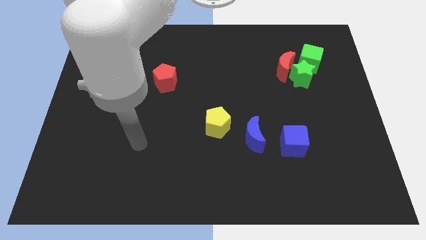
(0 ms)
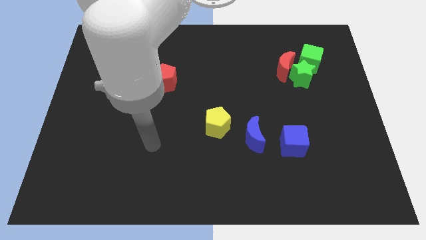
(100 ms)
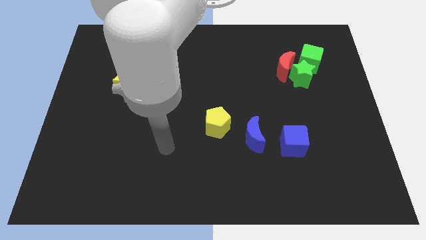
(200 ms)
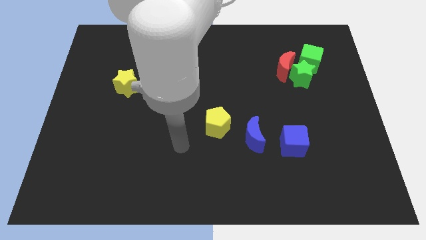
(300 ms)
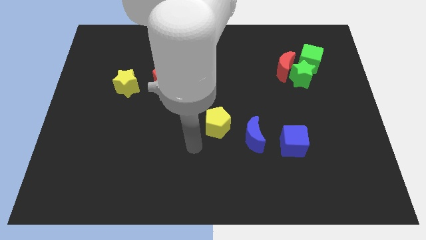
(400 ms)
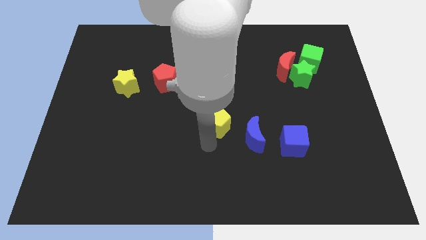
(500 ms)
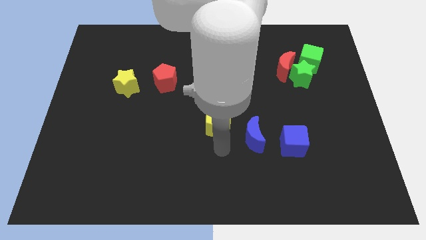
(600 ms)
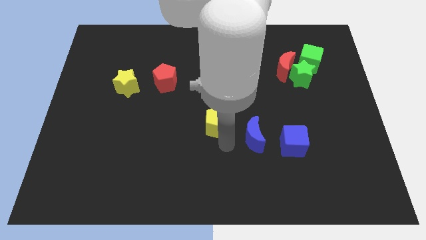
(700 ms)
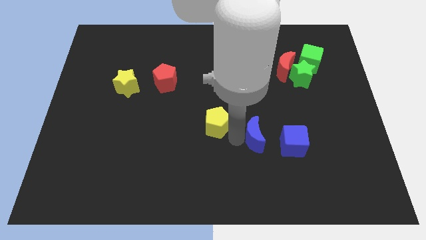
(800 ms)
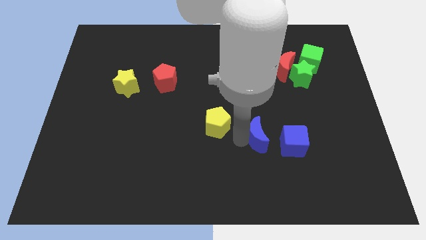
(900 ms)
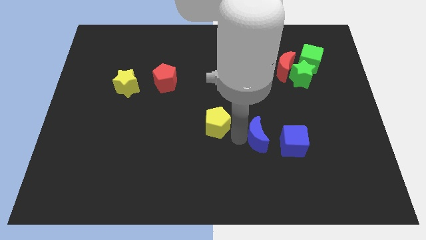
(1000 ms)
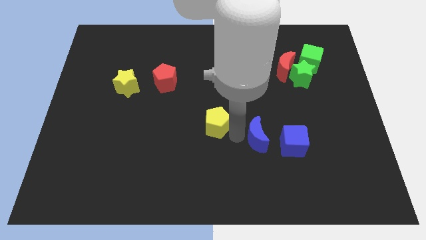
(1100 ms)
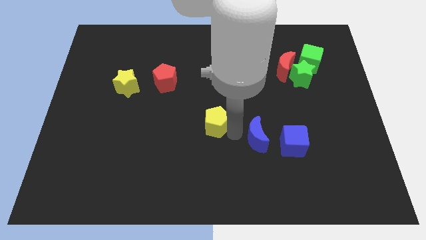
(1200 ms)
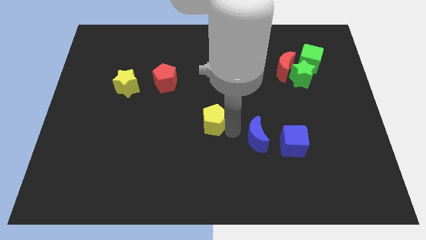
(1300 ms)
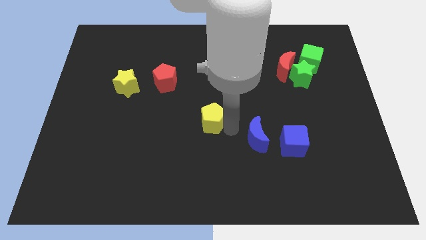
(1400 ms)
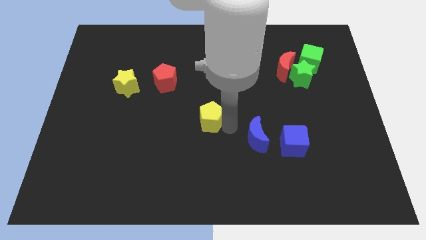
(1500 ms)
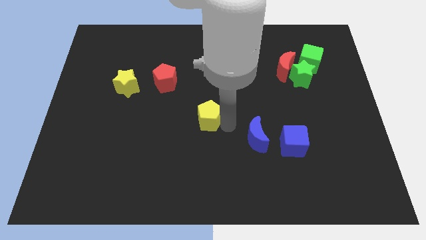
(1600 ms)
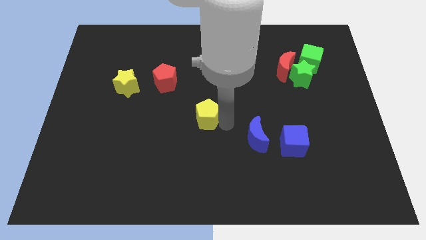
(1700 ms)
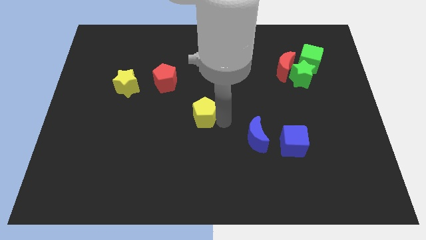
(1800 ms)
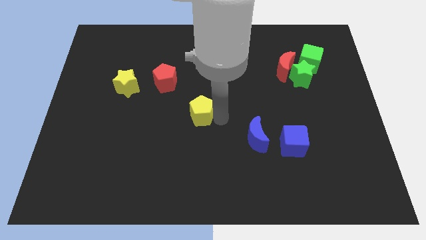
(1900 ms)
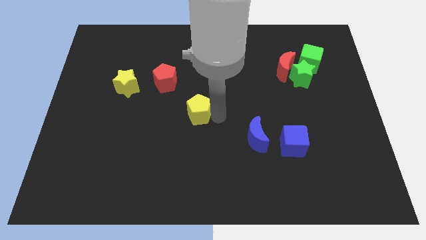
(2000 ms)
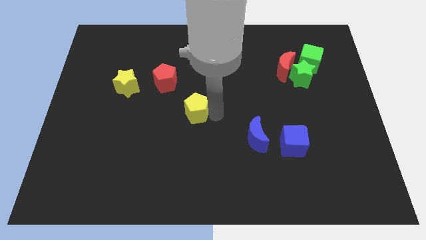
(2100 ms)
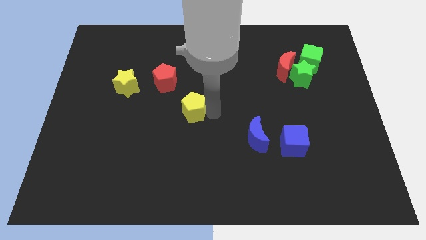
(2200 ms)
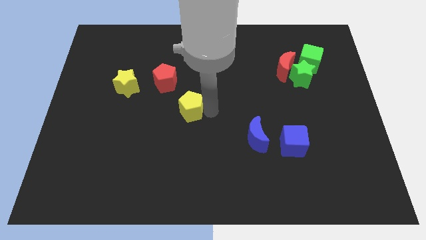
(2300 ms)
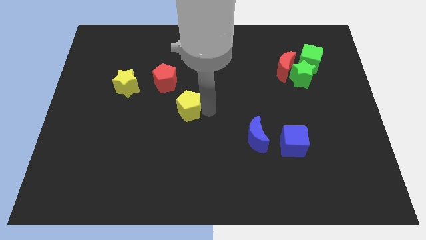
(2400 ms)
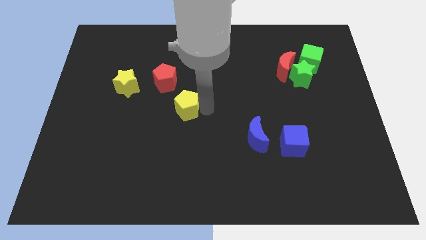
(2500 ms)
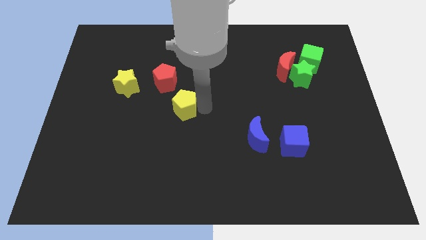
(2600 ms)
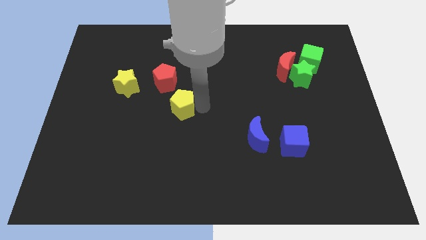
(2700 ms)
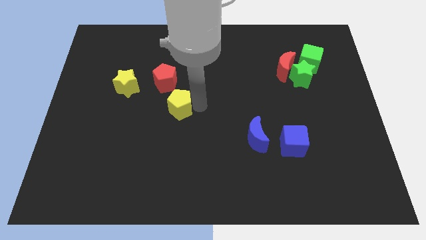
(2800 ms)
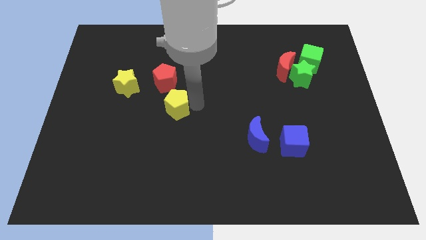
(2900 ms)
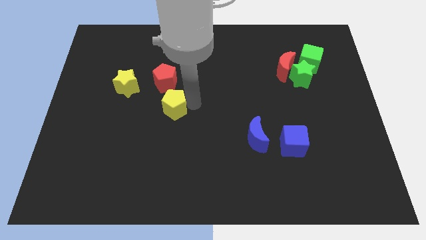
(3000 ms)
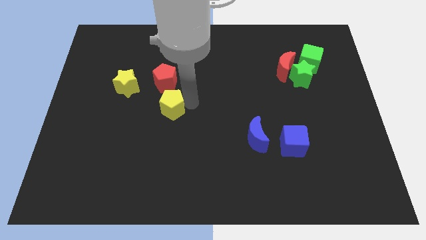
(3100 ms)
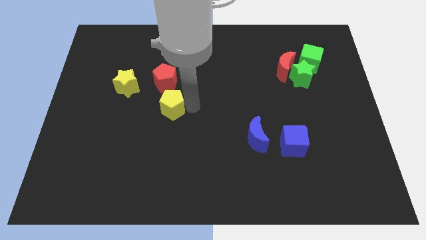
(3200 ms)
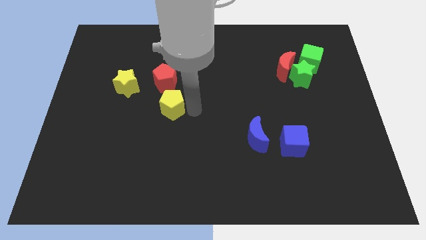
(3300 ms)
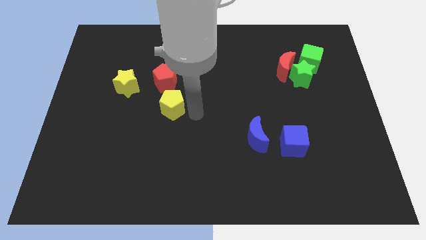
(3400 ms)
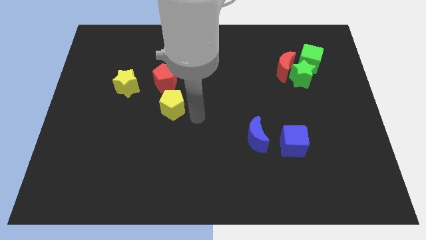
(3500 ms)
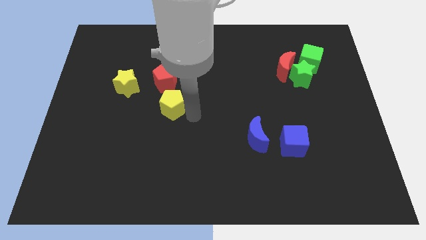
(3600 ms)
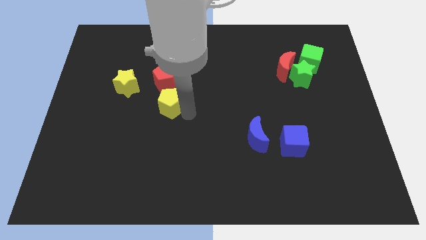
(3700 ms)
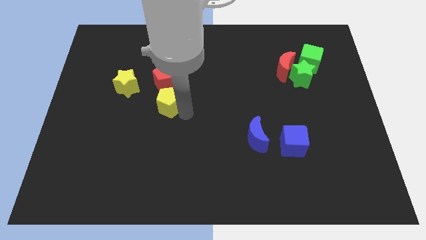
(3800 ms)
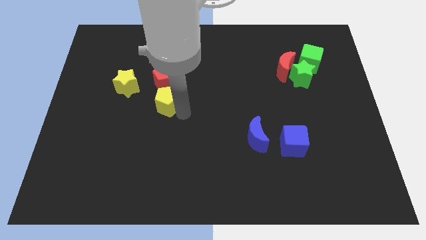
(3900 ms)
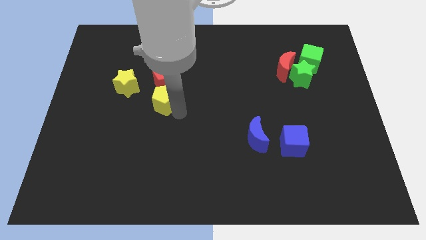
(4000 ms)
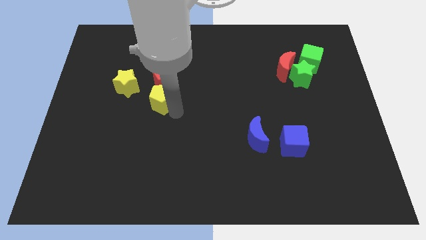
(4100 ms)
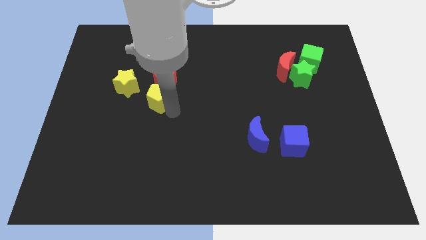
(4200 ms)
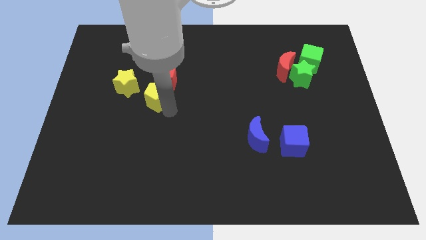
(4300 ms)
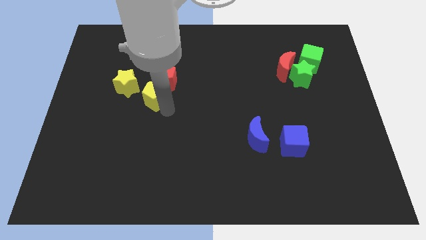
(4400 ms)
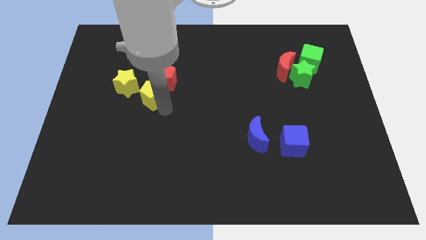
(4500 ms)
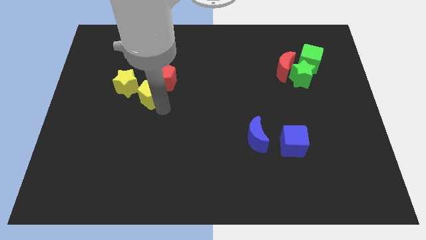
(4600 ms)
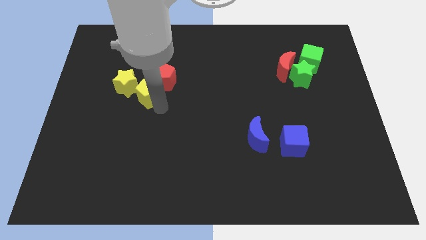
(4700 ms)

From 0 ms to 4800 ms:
move the yellow pentagon next to the yellow star

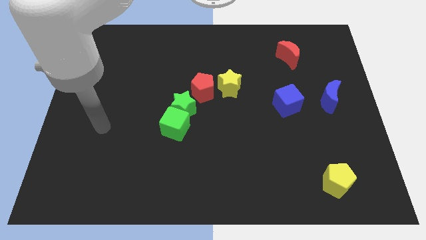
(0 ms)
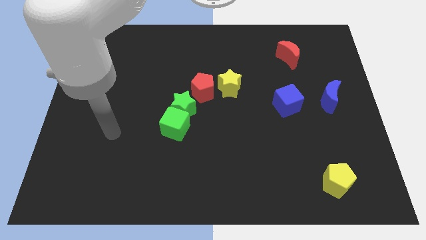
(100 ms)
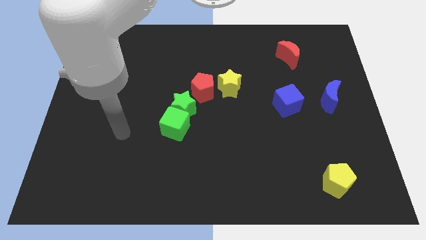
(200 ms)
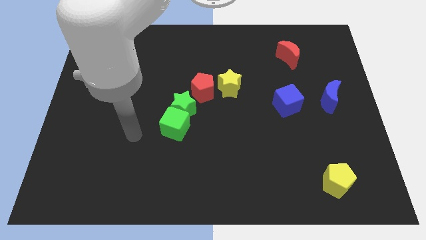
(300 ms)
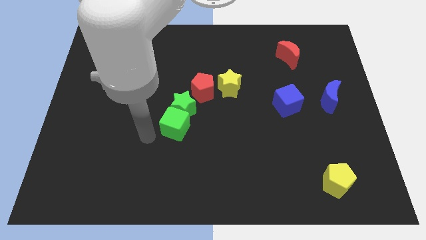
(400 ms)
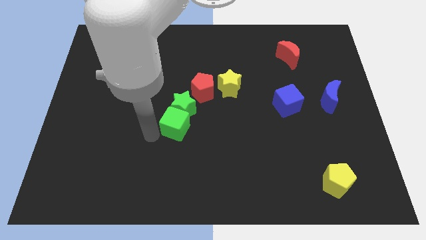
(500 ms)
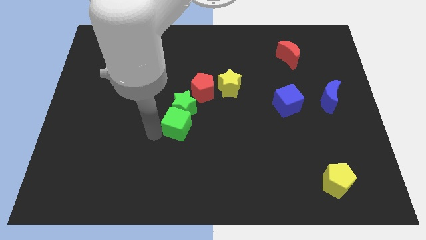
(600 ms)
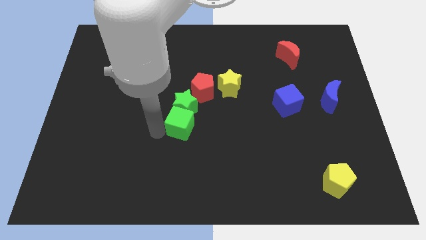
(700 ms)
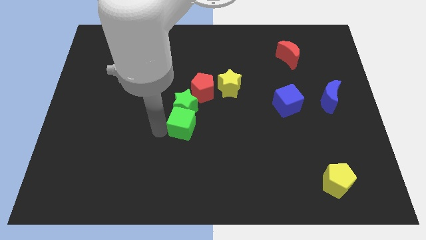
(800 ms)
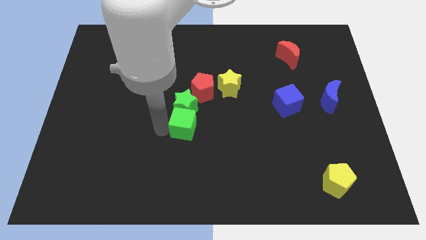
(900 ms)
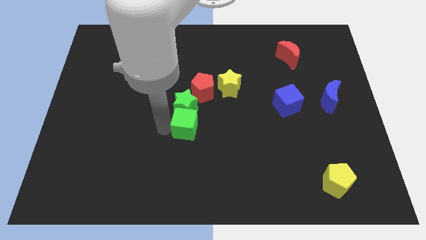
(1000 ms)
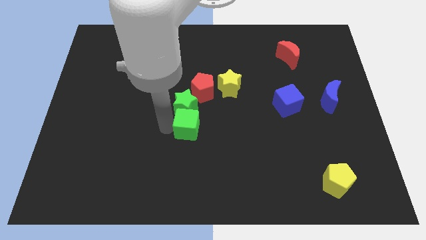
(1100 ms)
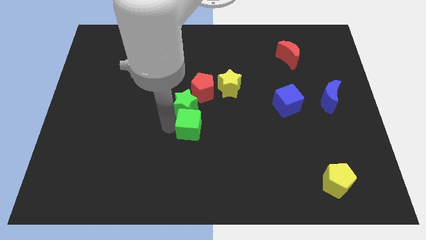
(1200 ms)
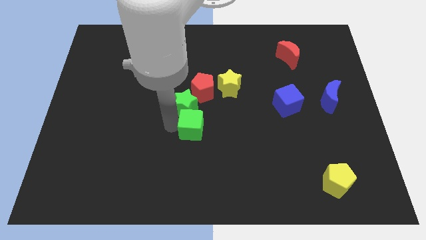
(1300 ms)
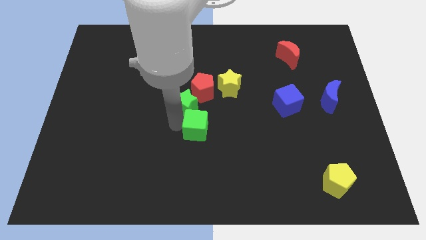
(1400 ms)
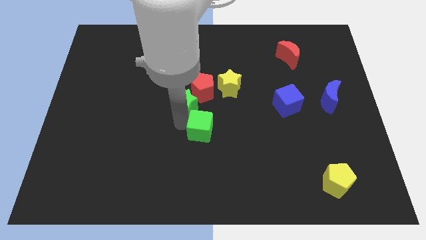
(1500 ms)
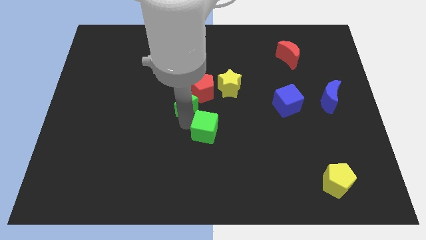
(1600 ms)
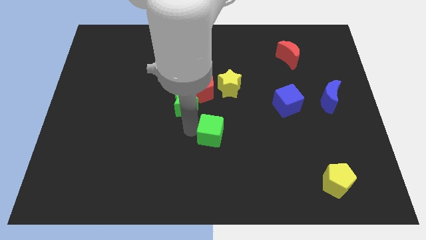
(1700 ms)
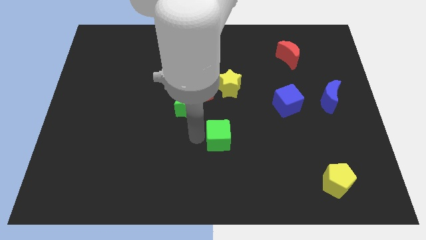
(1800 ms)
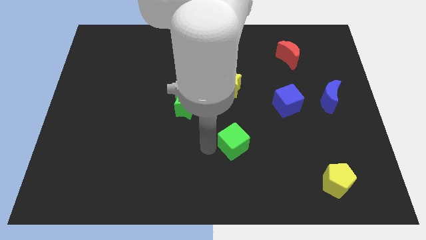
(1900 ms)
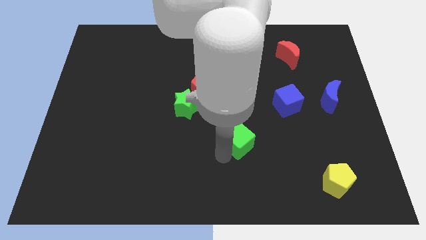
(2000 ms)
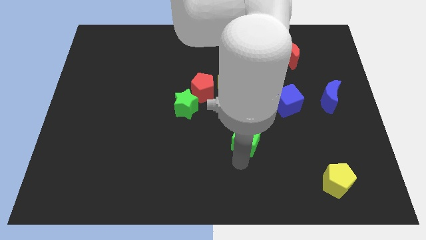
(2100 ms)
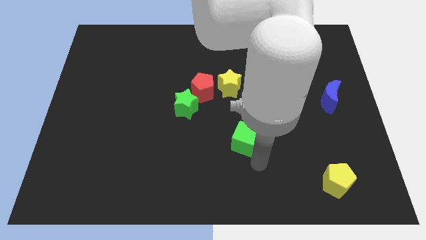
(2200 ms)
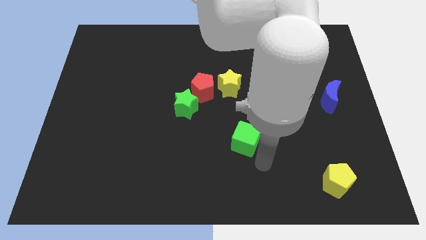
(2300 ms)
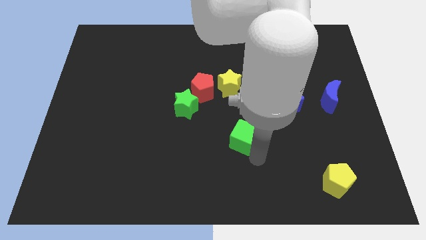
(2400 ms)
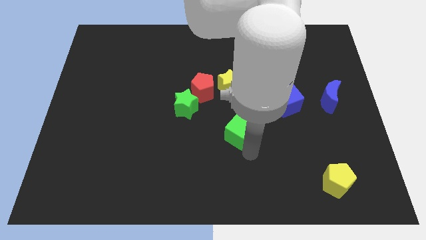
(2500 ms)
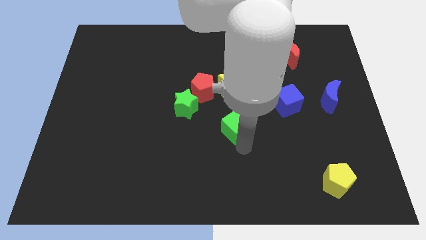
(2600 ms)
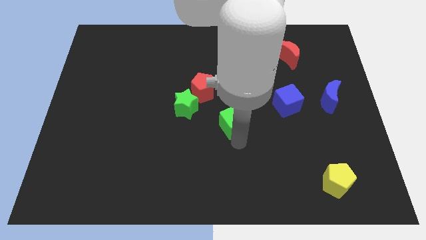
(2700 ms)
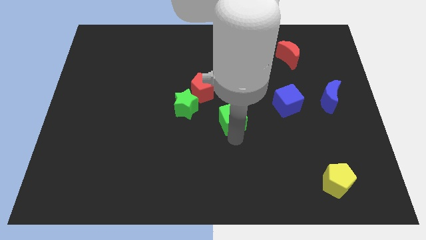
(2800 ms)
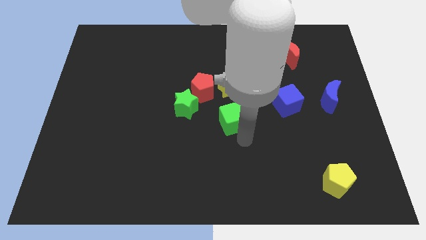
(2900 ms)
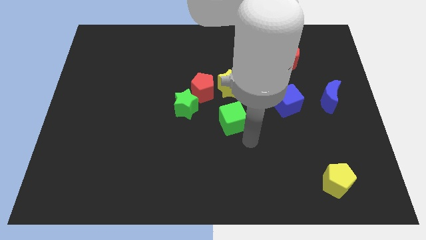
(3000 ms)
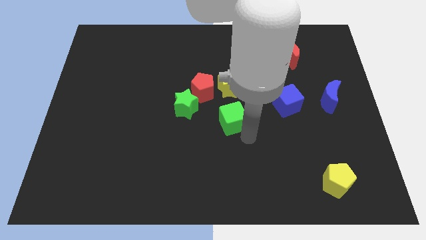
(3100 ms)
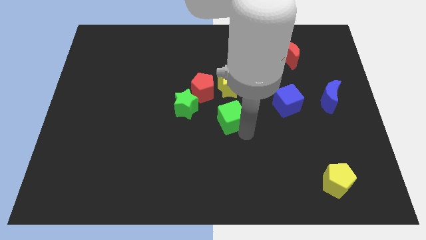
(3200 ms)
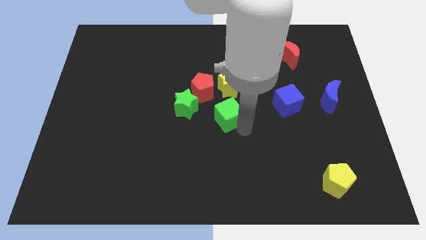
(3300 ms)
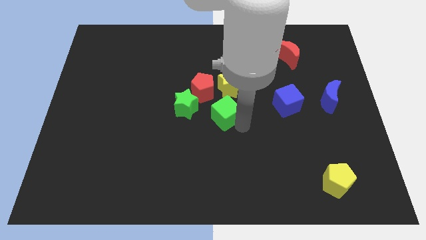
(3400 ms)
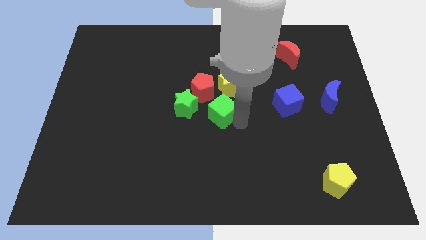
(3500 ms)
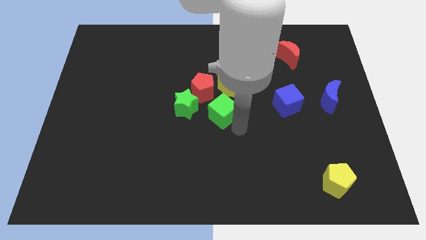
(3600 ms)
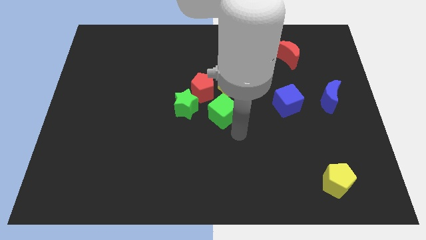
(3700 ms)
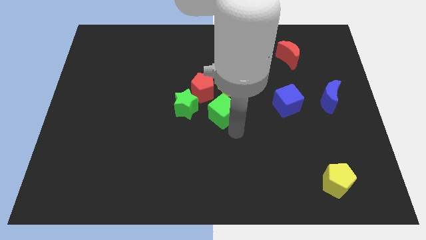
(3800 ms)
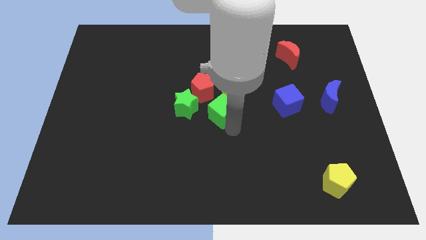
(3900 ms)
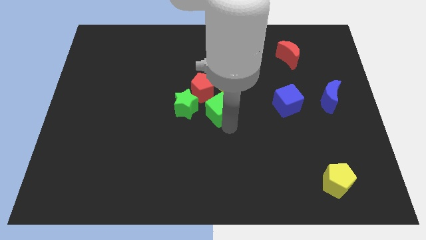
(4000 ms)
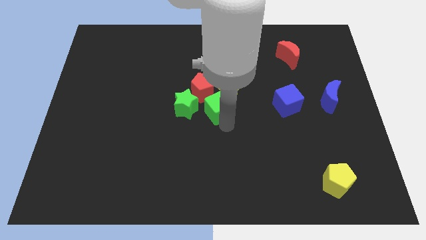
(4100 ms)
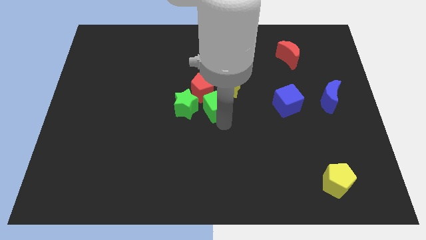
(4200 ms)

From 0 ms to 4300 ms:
move the green cube to the red pentagon
